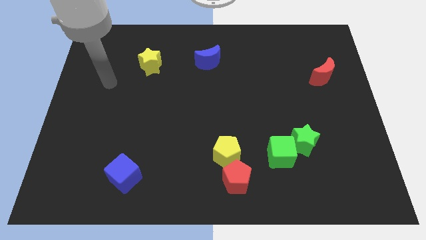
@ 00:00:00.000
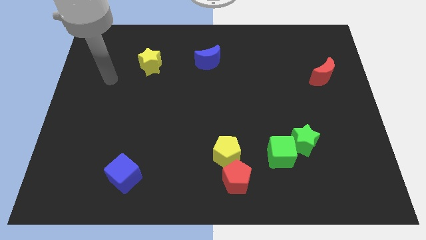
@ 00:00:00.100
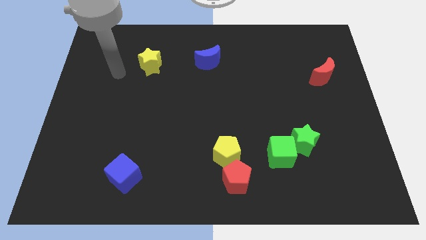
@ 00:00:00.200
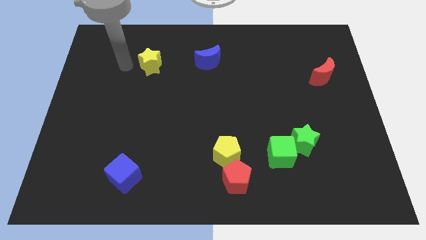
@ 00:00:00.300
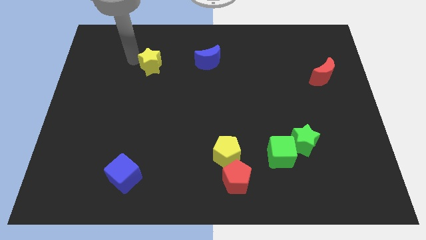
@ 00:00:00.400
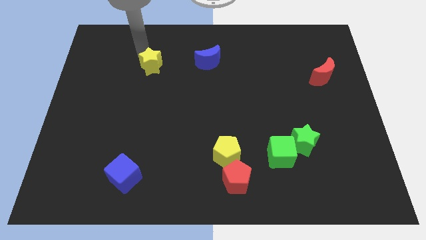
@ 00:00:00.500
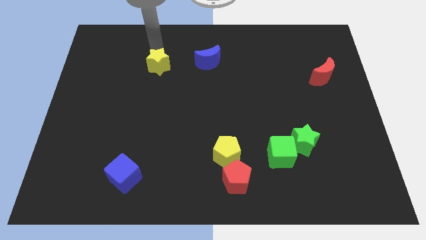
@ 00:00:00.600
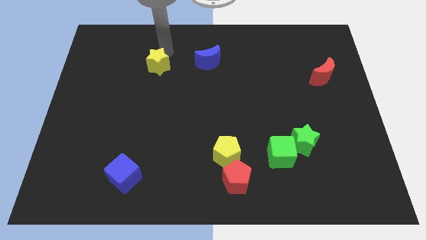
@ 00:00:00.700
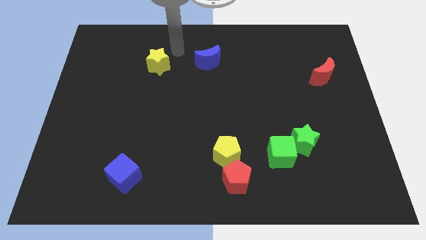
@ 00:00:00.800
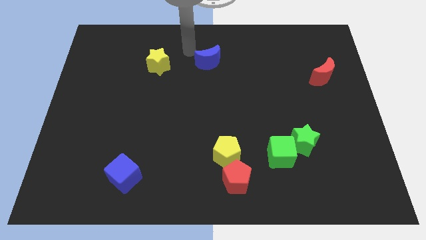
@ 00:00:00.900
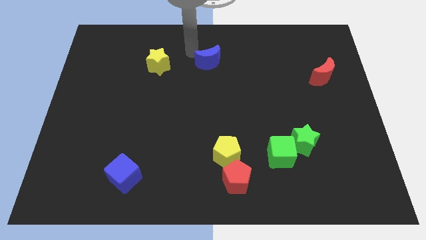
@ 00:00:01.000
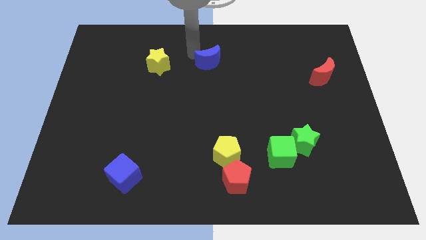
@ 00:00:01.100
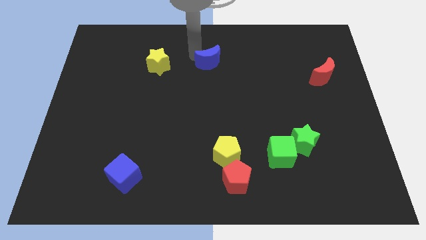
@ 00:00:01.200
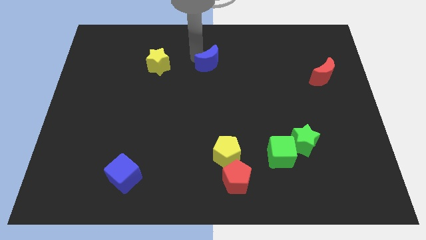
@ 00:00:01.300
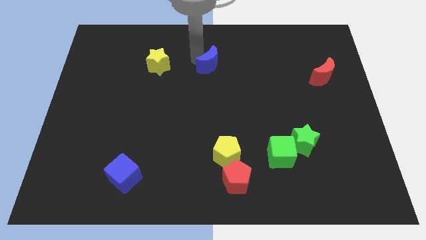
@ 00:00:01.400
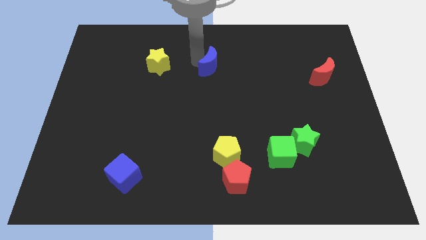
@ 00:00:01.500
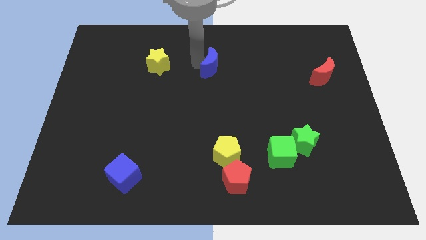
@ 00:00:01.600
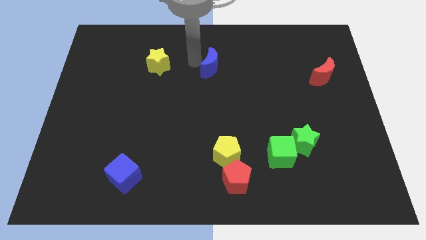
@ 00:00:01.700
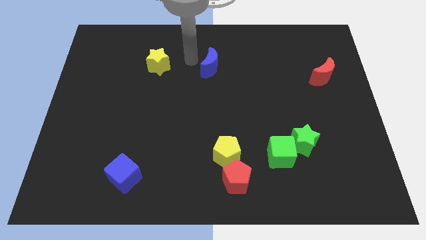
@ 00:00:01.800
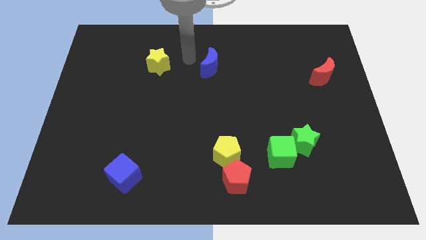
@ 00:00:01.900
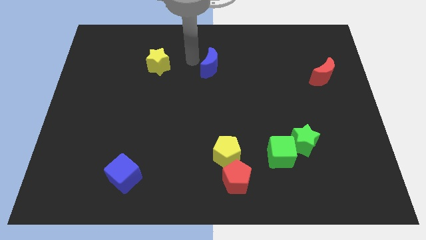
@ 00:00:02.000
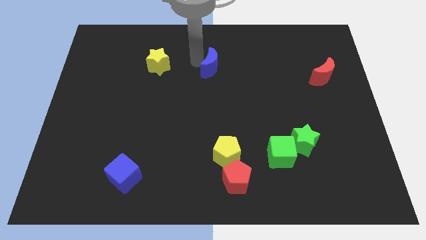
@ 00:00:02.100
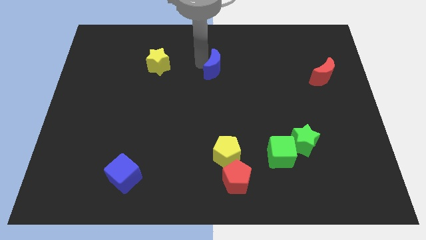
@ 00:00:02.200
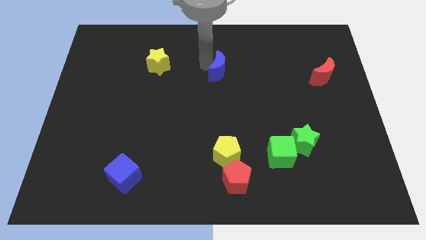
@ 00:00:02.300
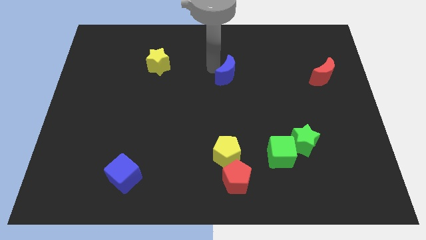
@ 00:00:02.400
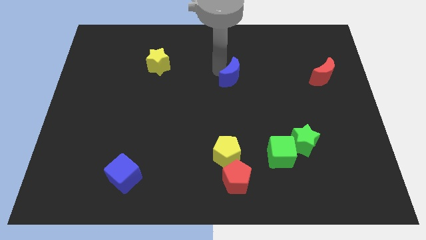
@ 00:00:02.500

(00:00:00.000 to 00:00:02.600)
push the blue moon a little downwards and right diagonally

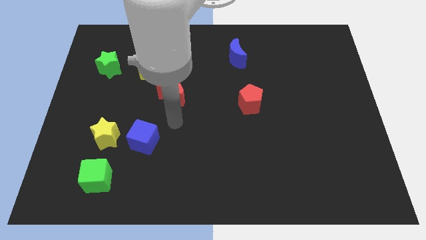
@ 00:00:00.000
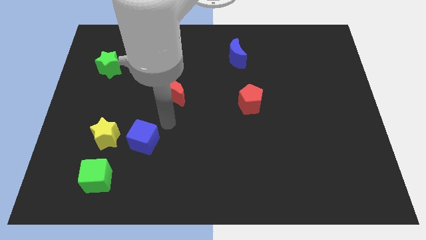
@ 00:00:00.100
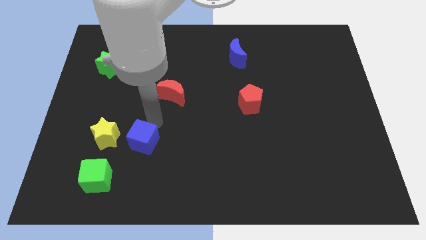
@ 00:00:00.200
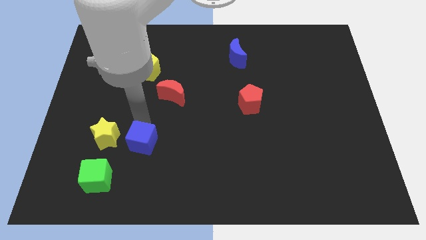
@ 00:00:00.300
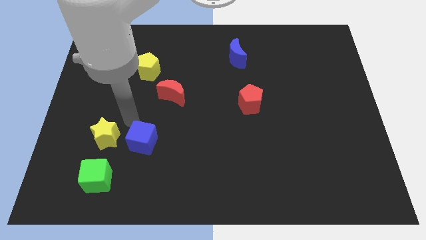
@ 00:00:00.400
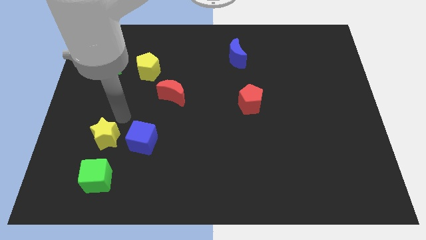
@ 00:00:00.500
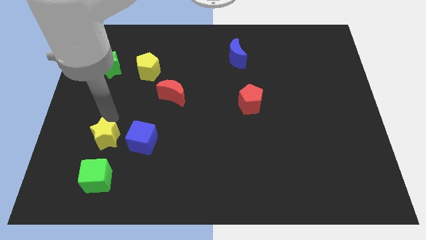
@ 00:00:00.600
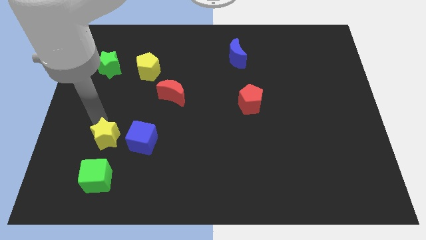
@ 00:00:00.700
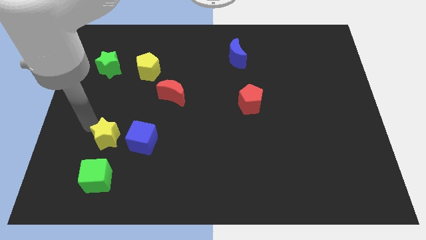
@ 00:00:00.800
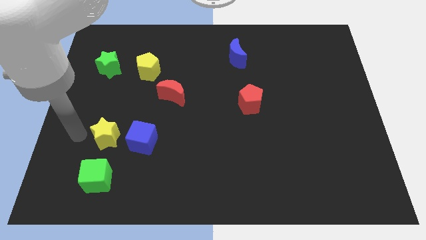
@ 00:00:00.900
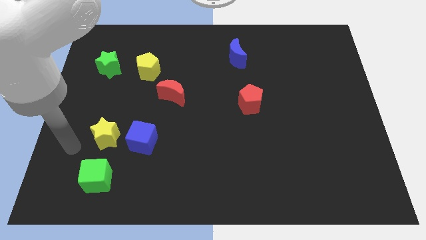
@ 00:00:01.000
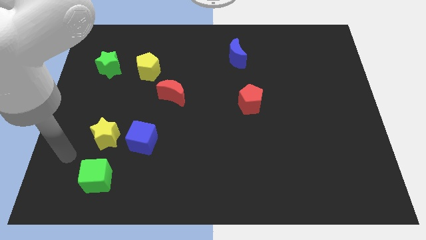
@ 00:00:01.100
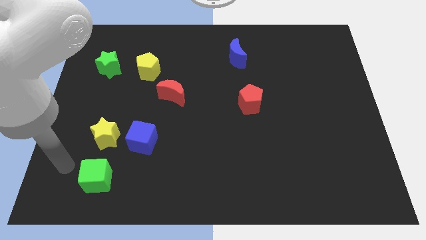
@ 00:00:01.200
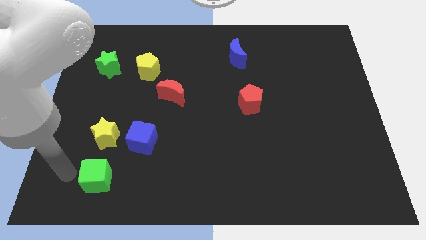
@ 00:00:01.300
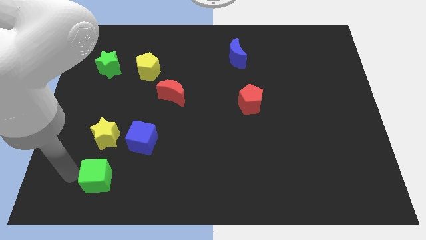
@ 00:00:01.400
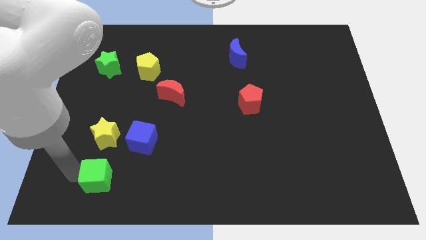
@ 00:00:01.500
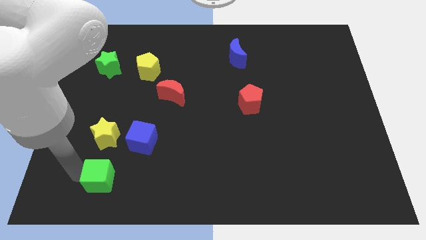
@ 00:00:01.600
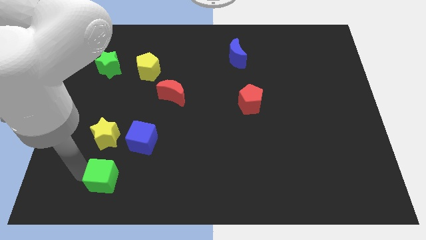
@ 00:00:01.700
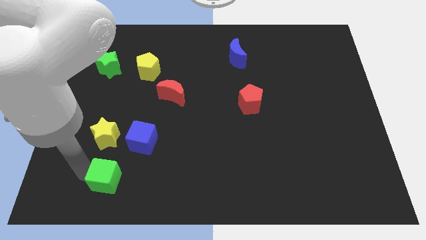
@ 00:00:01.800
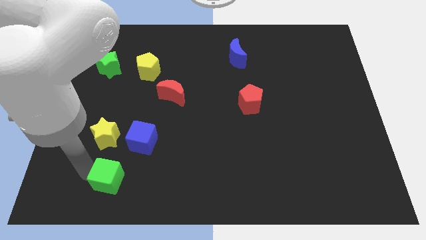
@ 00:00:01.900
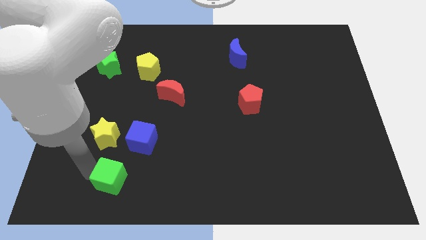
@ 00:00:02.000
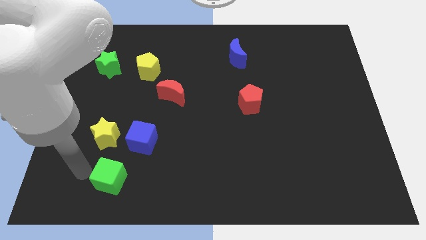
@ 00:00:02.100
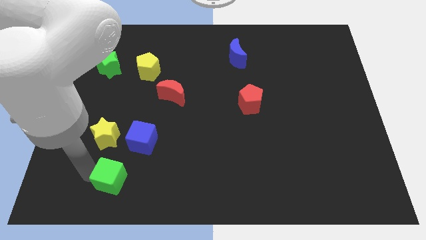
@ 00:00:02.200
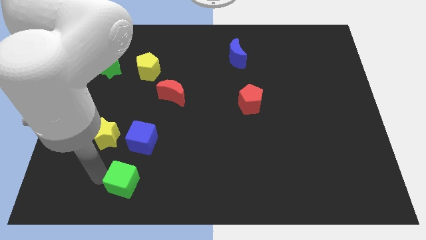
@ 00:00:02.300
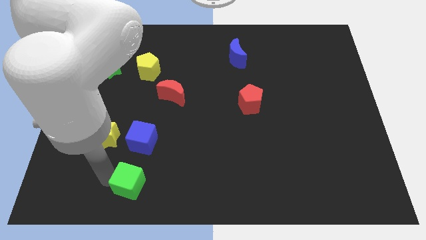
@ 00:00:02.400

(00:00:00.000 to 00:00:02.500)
slightly push the green cube right

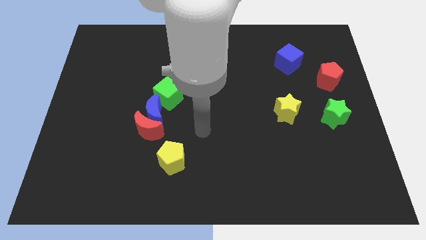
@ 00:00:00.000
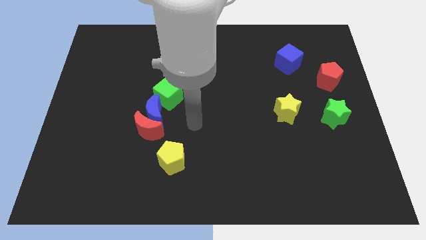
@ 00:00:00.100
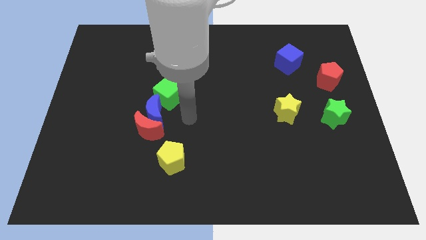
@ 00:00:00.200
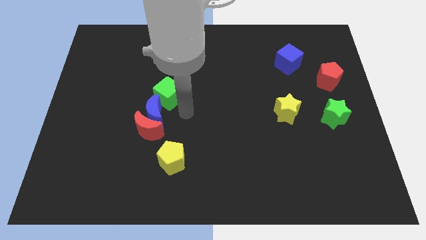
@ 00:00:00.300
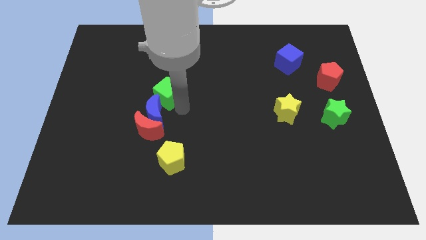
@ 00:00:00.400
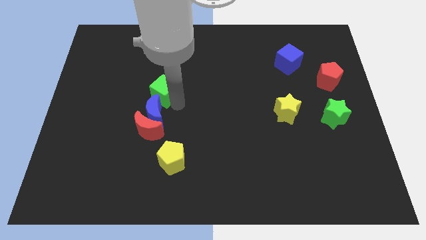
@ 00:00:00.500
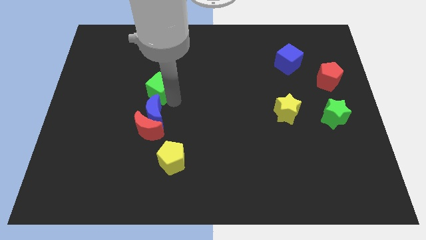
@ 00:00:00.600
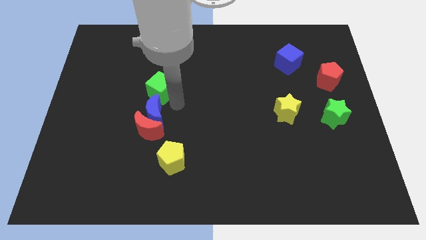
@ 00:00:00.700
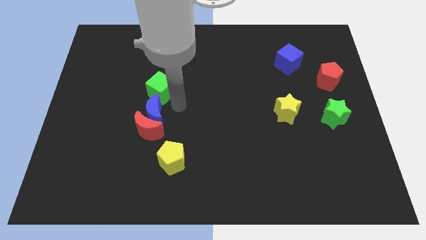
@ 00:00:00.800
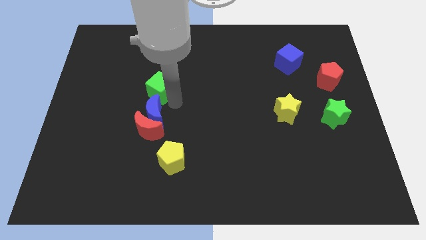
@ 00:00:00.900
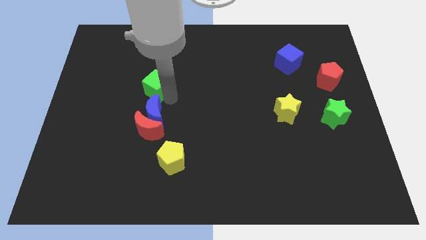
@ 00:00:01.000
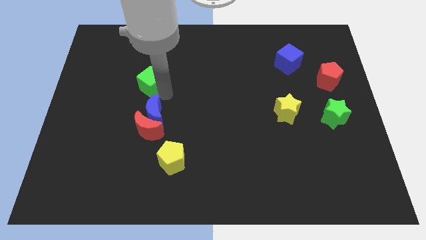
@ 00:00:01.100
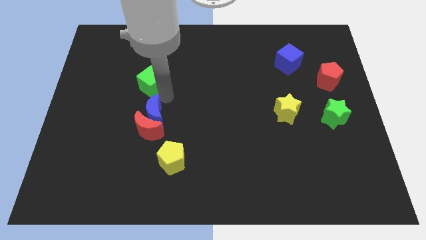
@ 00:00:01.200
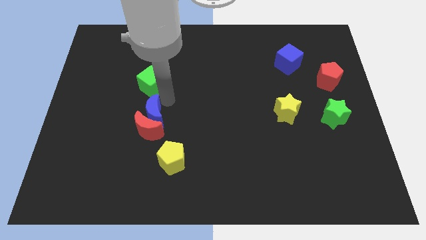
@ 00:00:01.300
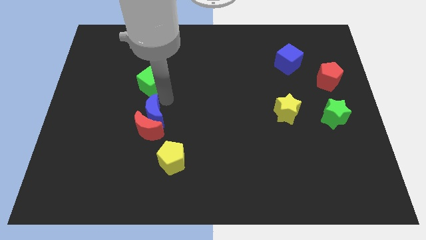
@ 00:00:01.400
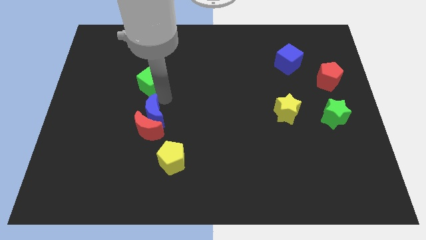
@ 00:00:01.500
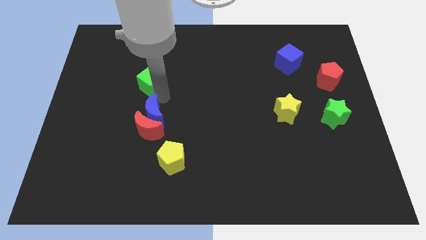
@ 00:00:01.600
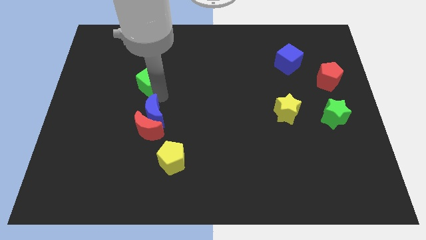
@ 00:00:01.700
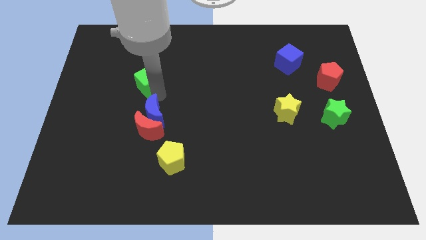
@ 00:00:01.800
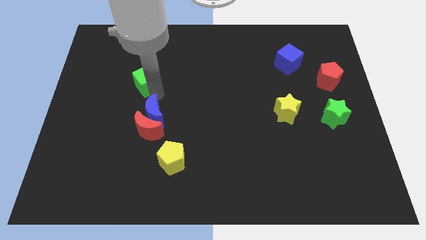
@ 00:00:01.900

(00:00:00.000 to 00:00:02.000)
slightly slide the green cube upwards and left

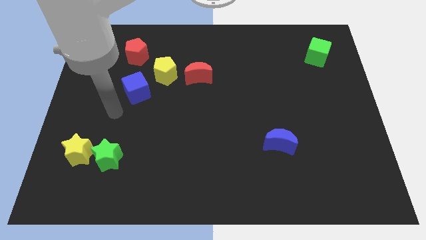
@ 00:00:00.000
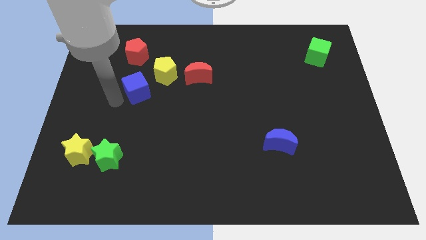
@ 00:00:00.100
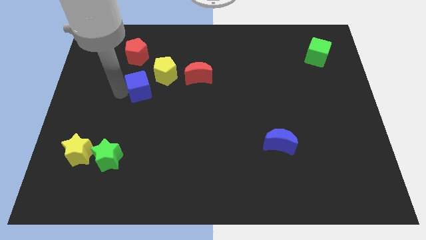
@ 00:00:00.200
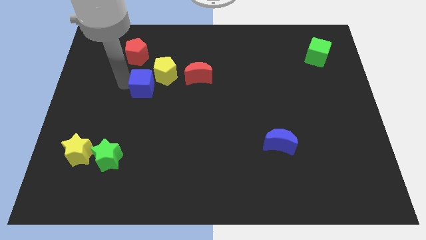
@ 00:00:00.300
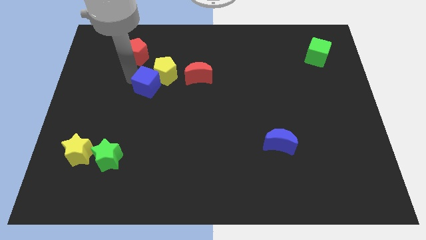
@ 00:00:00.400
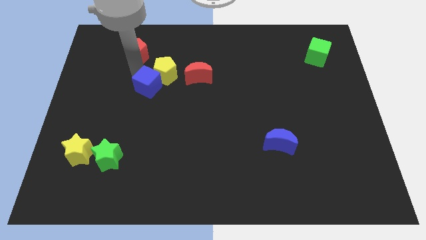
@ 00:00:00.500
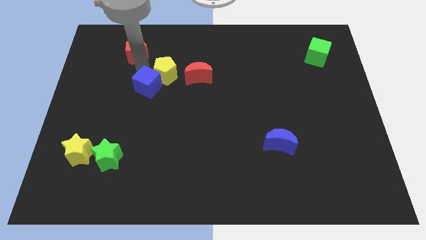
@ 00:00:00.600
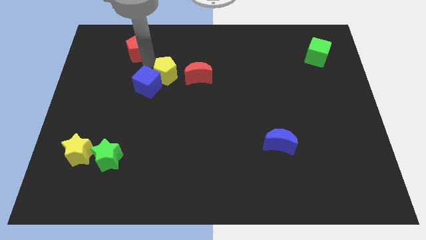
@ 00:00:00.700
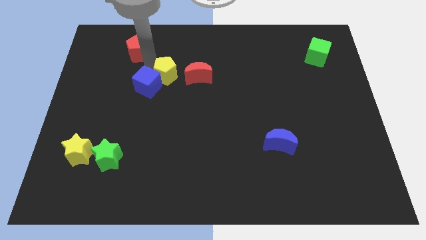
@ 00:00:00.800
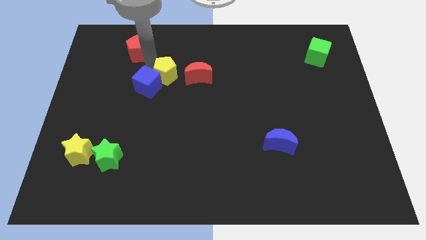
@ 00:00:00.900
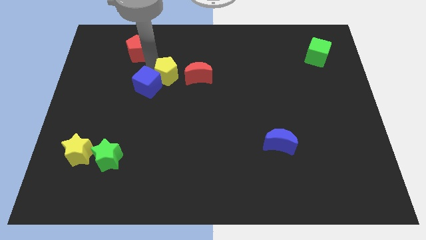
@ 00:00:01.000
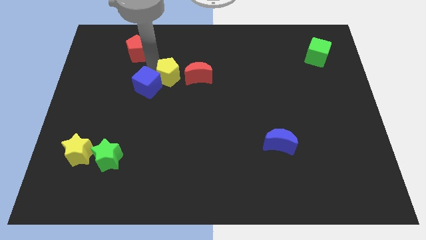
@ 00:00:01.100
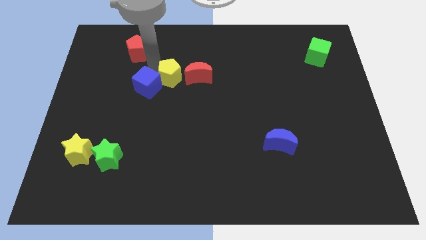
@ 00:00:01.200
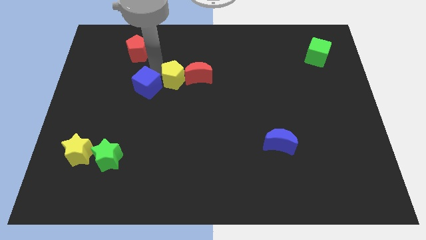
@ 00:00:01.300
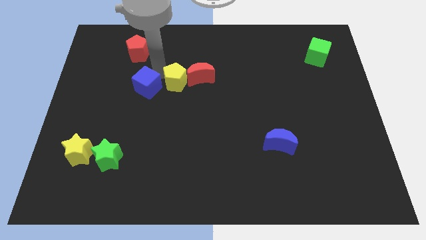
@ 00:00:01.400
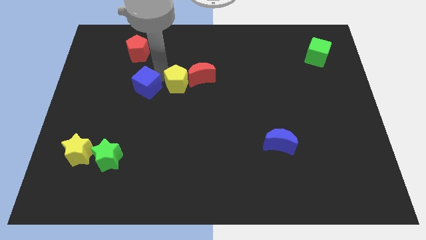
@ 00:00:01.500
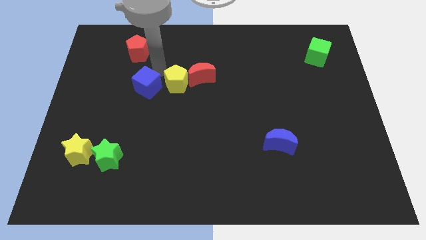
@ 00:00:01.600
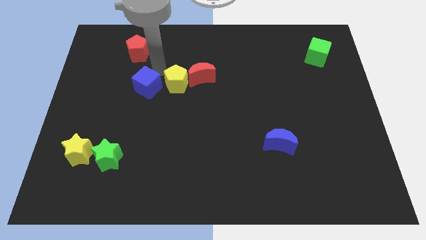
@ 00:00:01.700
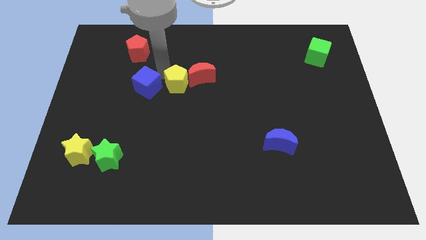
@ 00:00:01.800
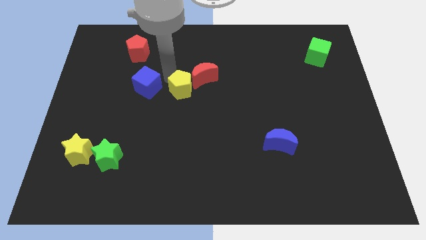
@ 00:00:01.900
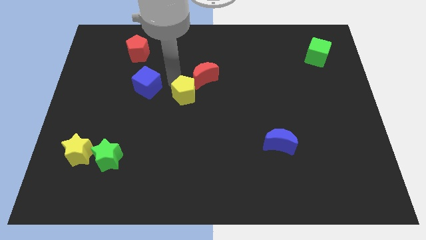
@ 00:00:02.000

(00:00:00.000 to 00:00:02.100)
move the yellow pentagon downwards and right slightly
